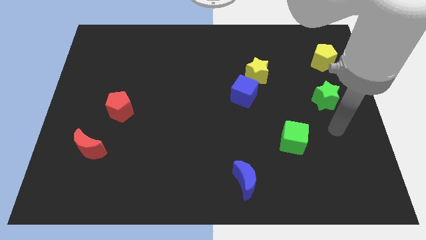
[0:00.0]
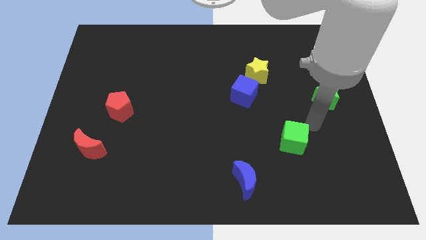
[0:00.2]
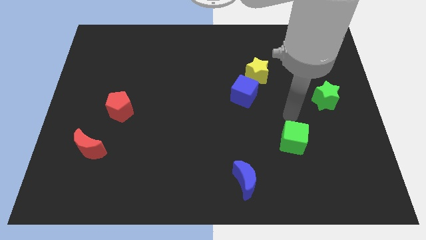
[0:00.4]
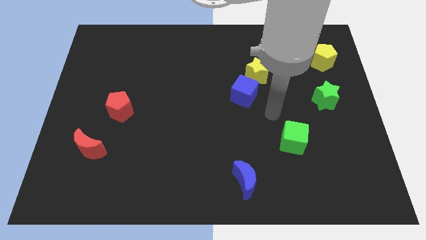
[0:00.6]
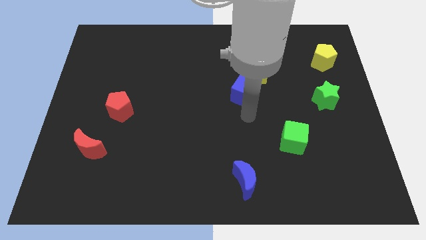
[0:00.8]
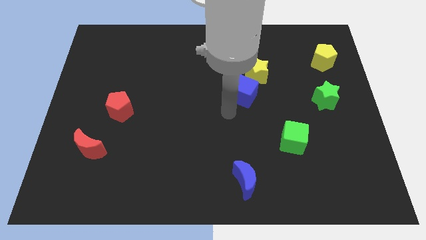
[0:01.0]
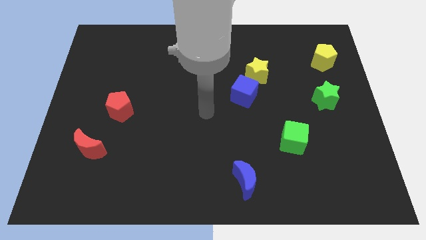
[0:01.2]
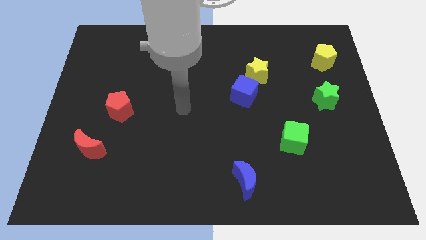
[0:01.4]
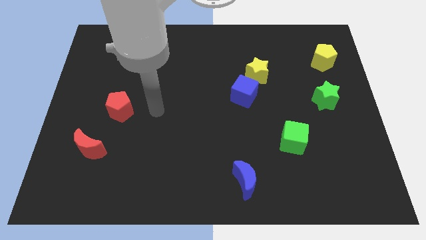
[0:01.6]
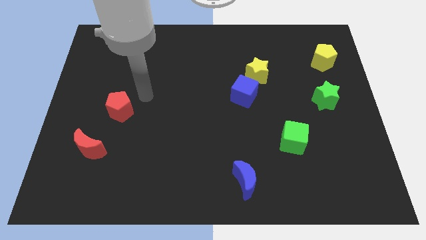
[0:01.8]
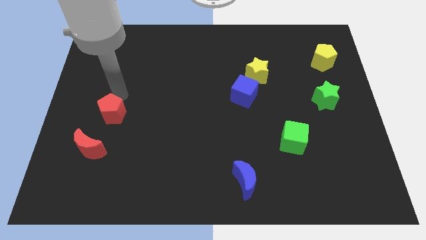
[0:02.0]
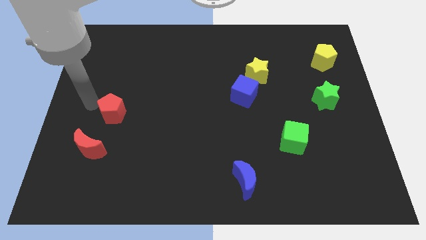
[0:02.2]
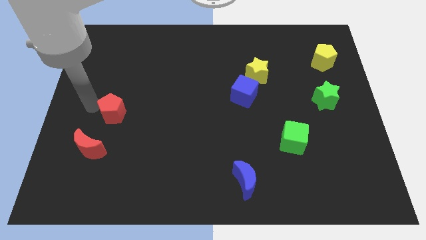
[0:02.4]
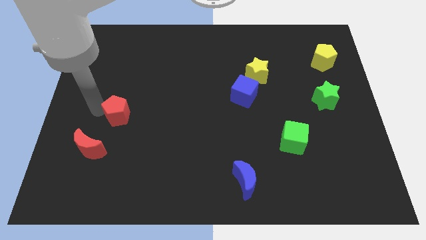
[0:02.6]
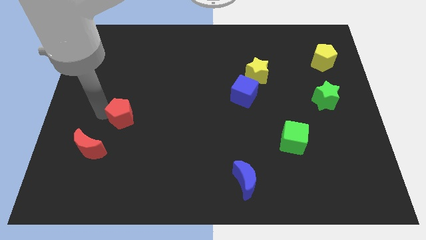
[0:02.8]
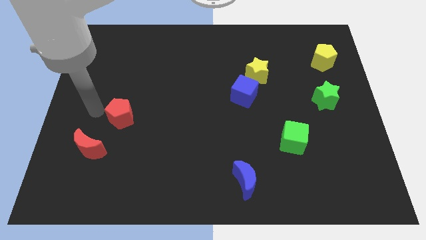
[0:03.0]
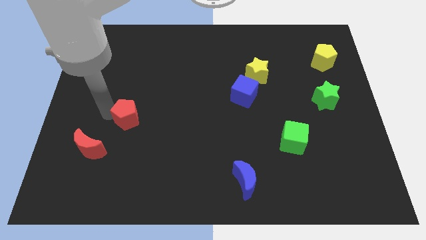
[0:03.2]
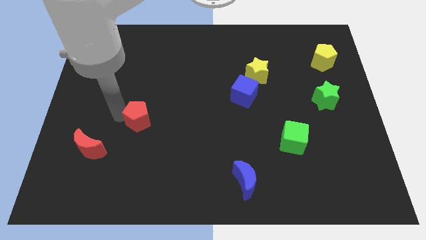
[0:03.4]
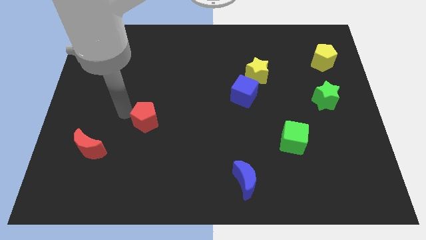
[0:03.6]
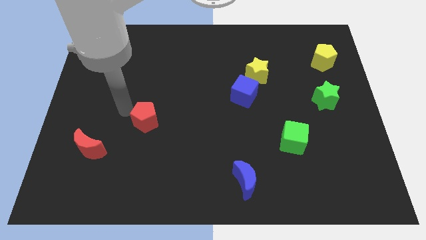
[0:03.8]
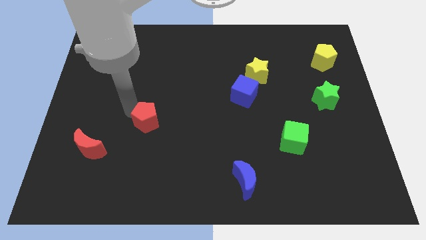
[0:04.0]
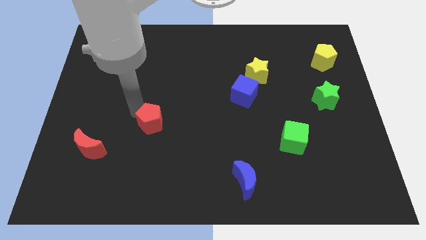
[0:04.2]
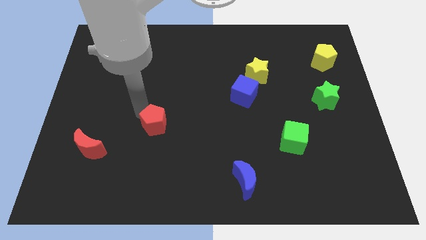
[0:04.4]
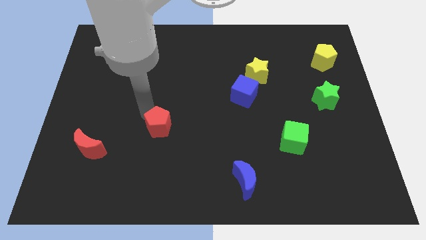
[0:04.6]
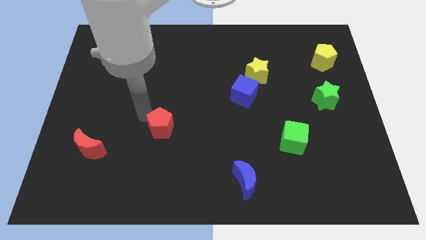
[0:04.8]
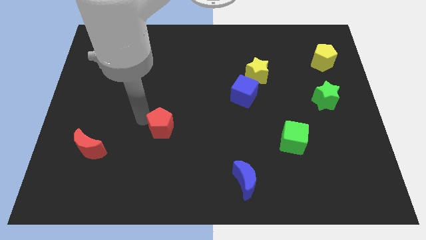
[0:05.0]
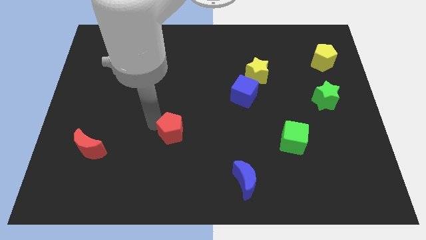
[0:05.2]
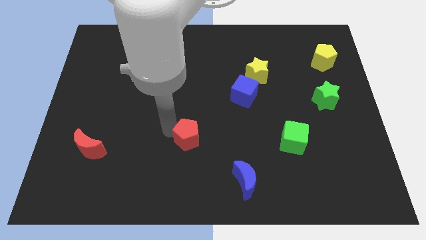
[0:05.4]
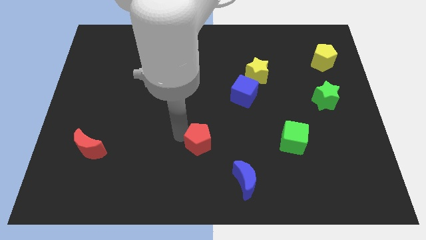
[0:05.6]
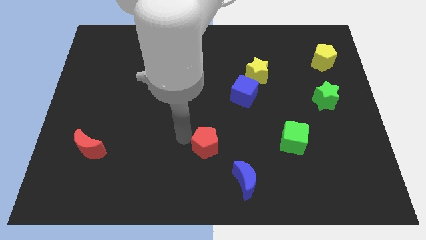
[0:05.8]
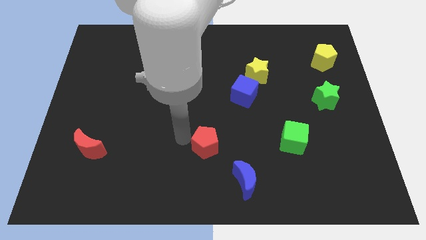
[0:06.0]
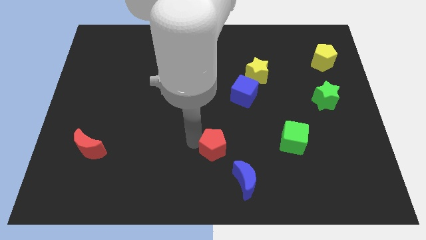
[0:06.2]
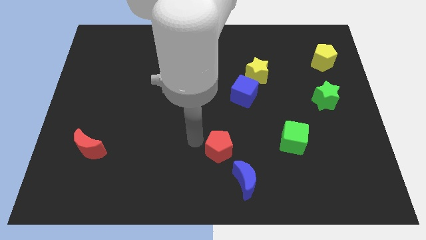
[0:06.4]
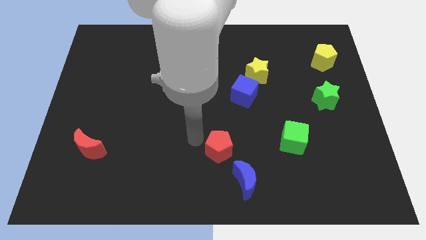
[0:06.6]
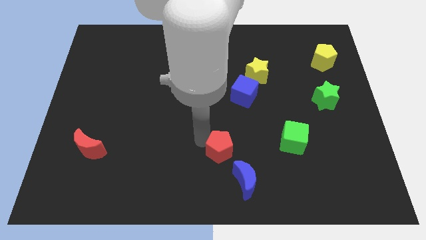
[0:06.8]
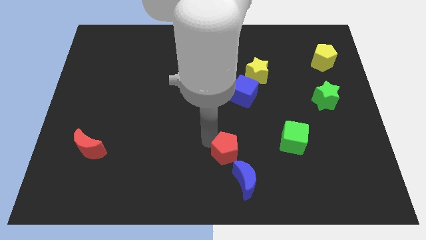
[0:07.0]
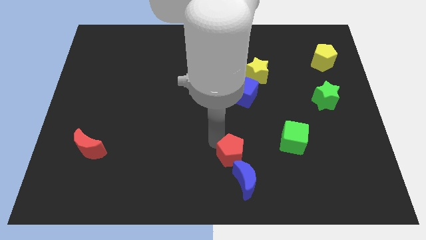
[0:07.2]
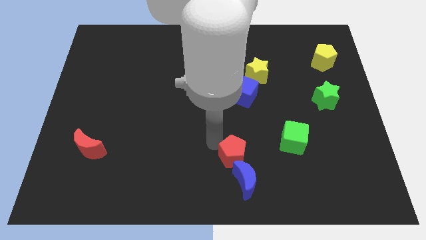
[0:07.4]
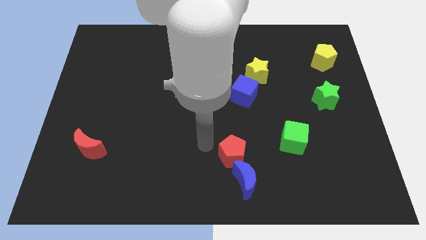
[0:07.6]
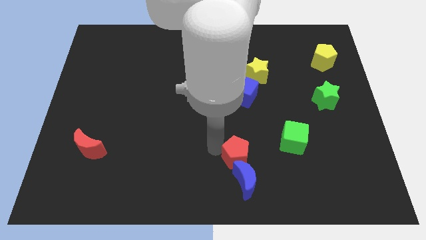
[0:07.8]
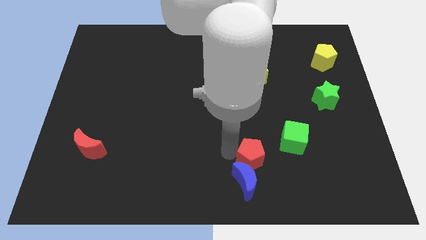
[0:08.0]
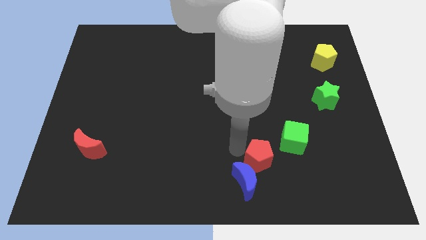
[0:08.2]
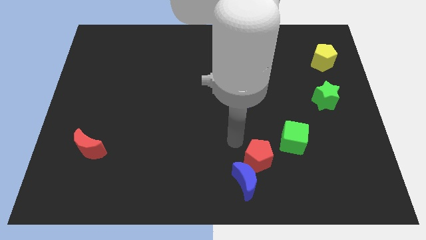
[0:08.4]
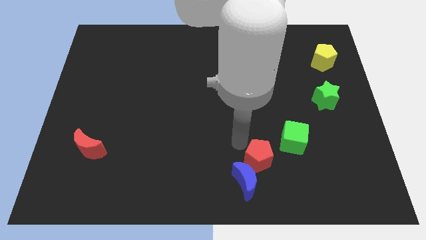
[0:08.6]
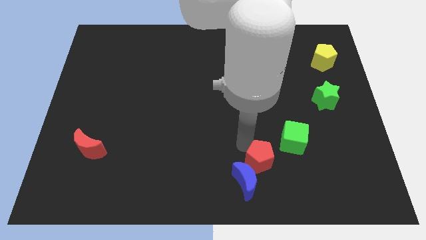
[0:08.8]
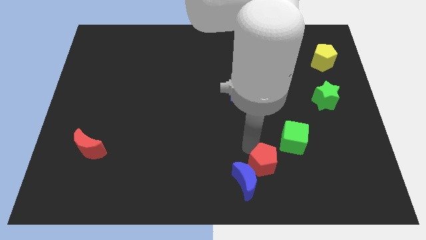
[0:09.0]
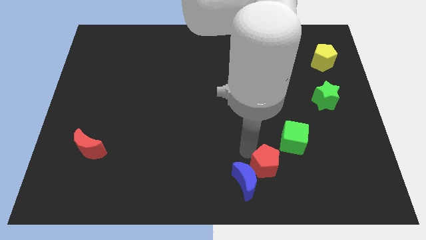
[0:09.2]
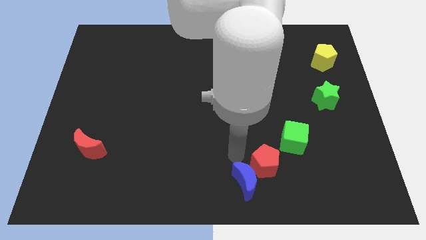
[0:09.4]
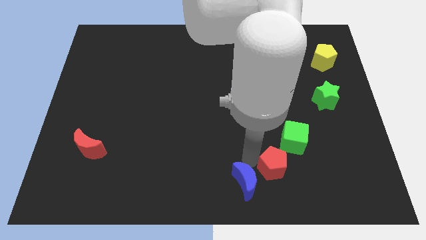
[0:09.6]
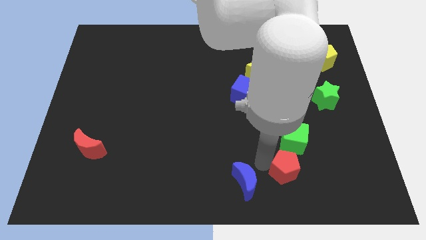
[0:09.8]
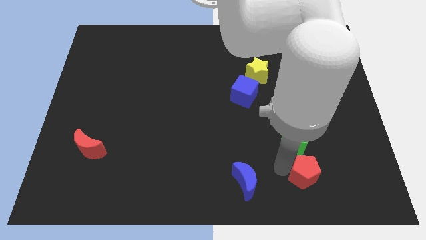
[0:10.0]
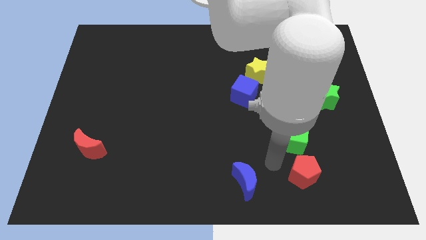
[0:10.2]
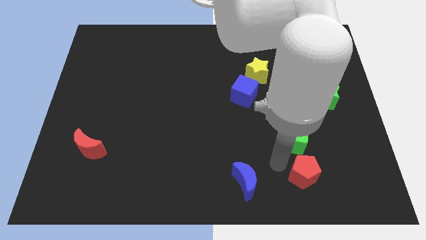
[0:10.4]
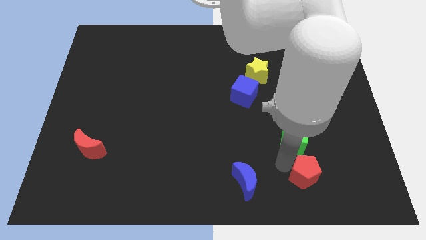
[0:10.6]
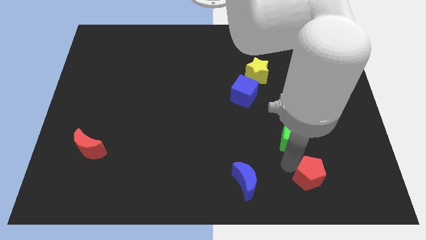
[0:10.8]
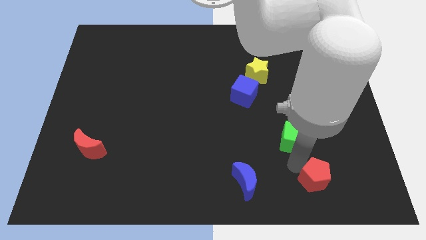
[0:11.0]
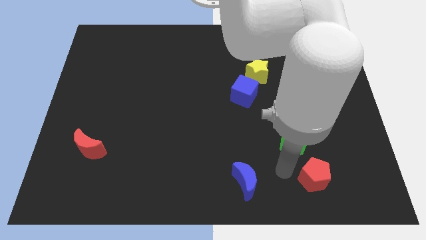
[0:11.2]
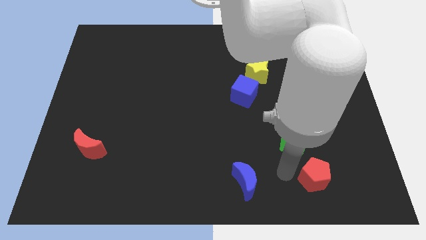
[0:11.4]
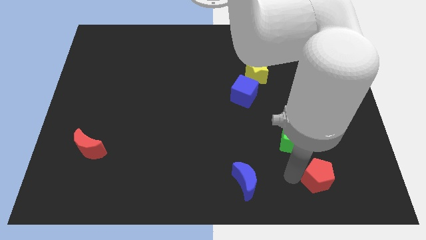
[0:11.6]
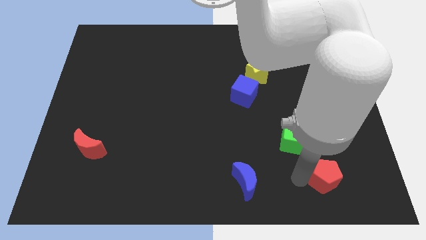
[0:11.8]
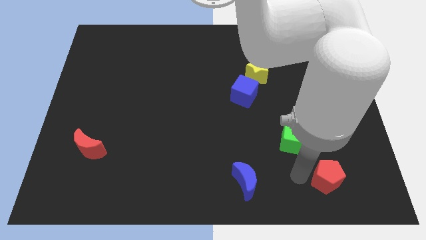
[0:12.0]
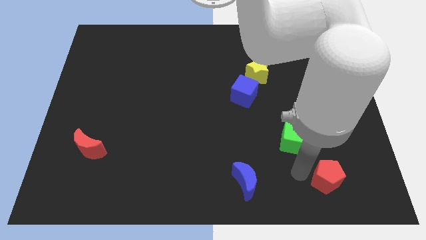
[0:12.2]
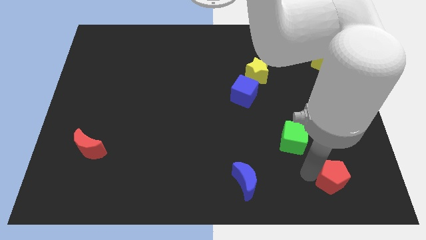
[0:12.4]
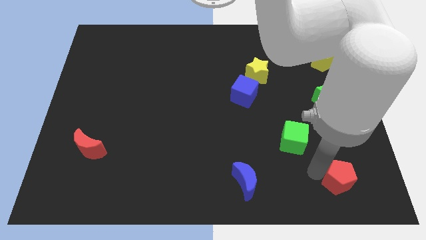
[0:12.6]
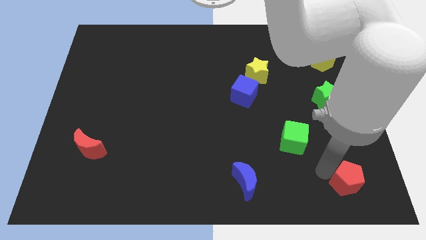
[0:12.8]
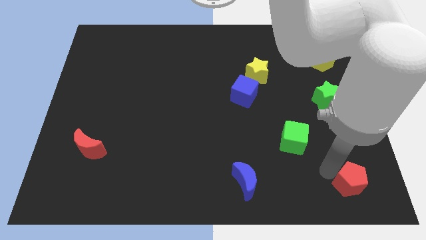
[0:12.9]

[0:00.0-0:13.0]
move the red pentagon to the bottom right of the board
